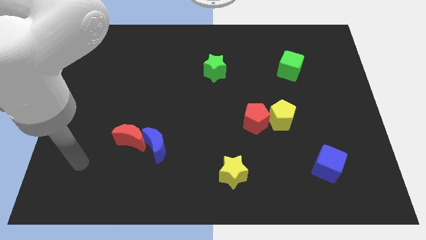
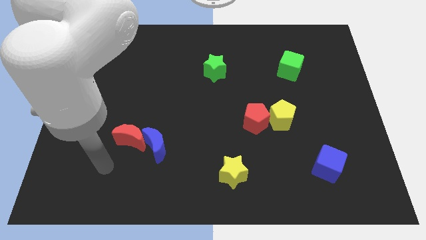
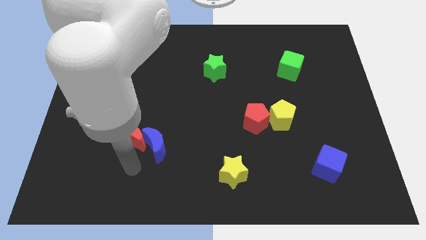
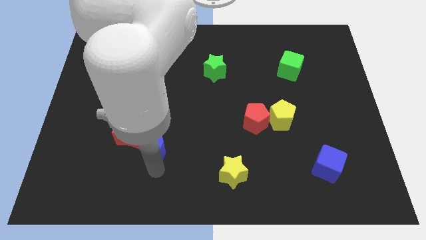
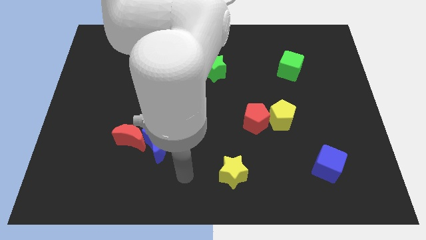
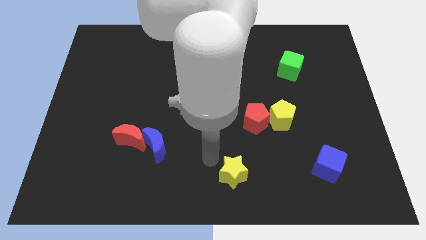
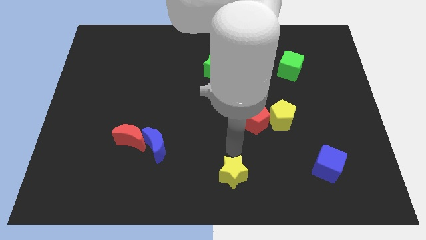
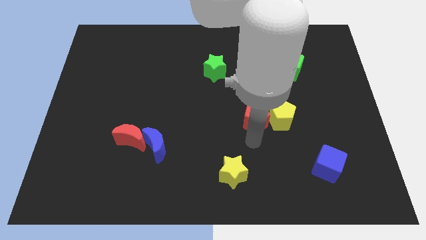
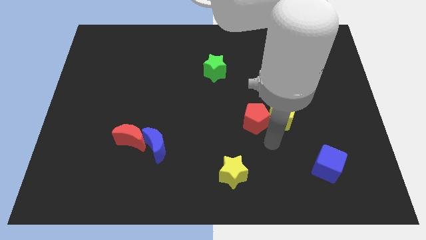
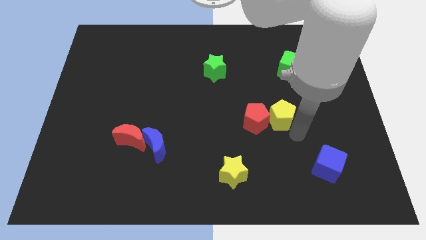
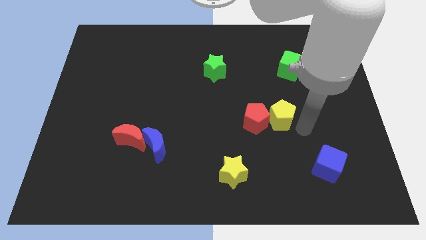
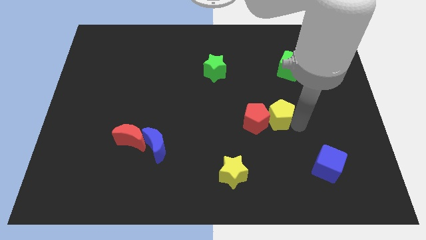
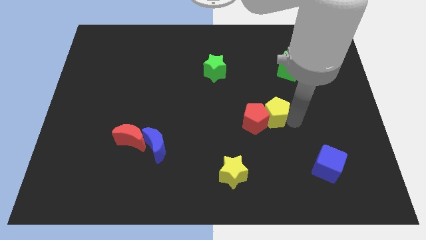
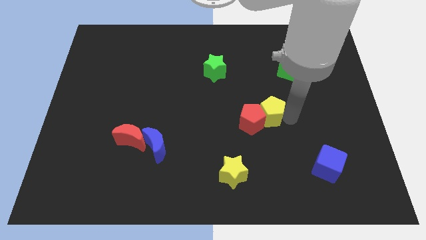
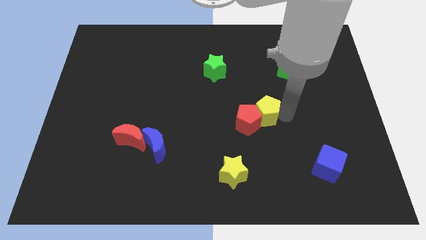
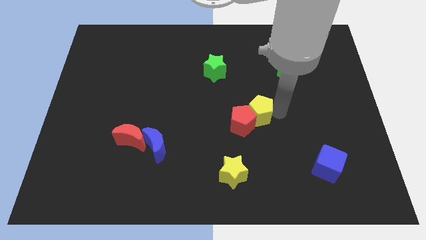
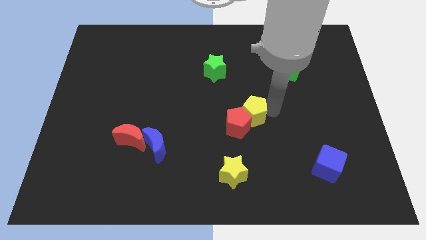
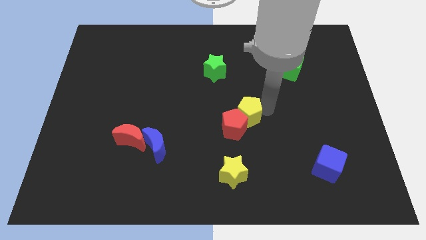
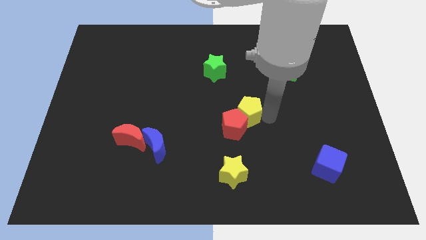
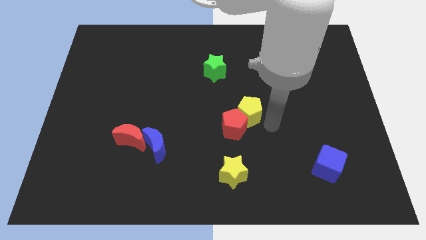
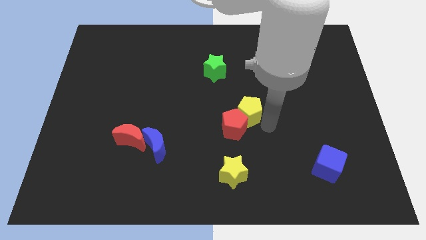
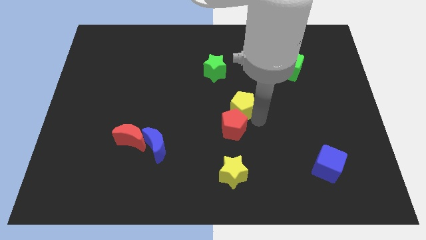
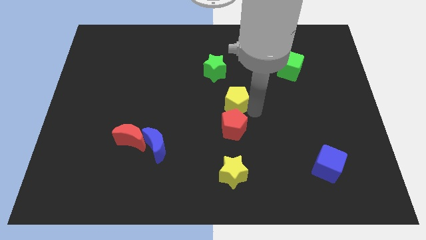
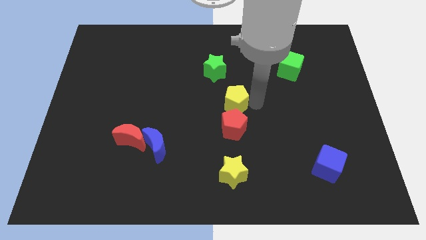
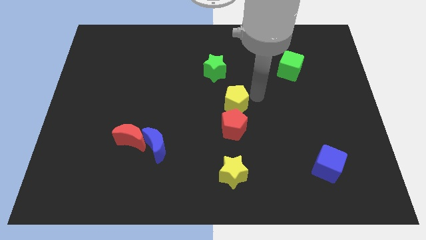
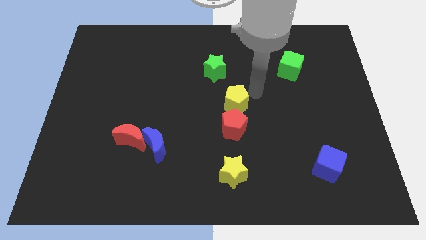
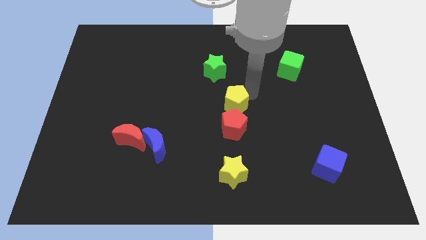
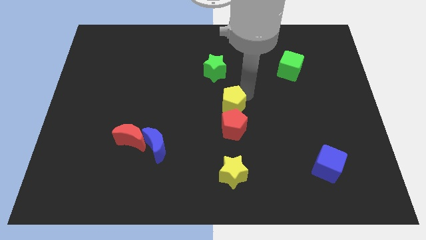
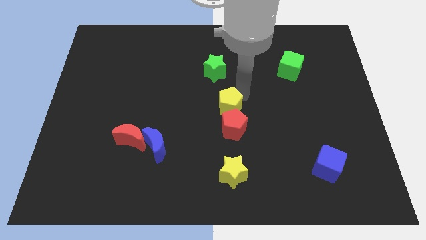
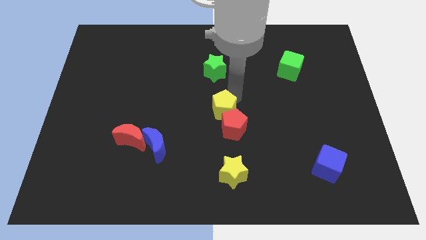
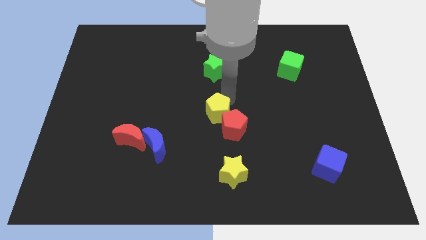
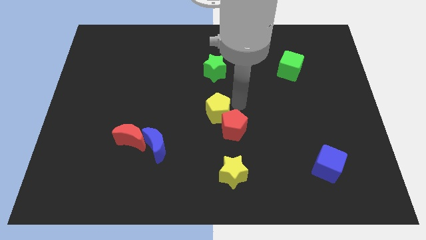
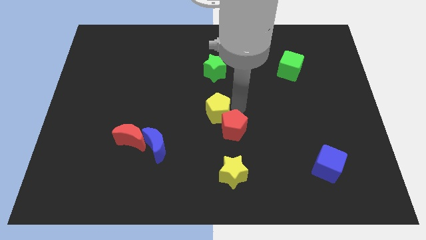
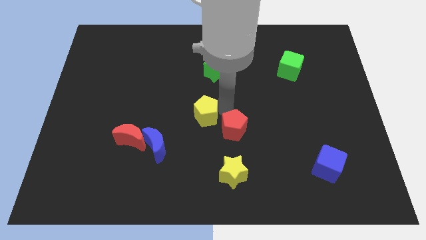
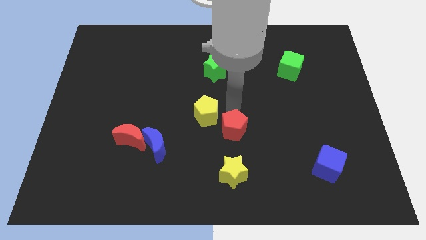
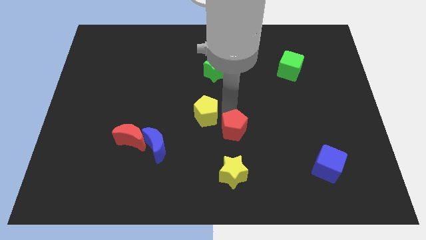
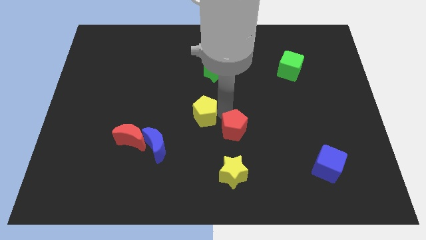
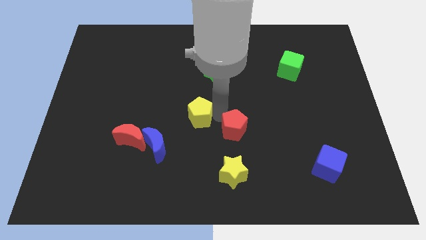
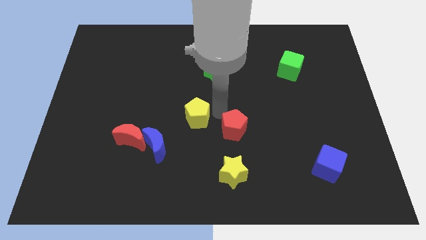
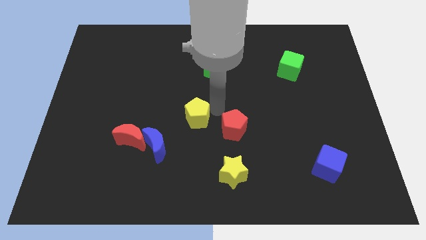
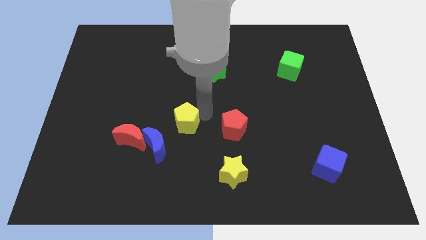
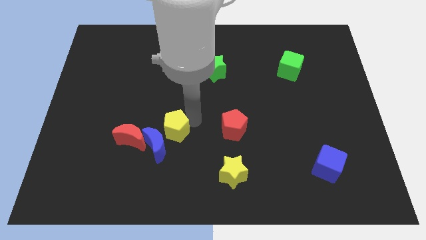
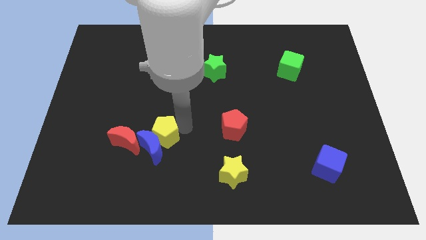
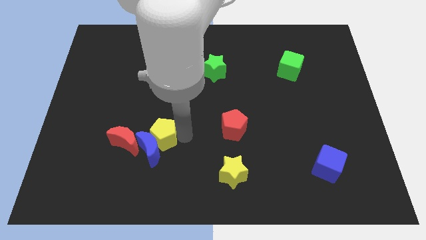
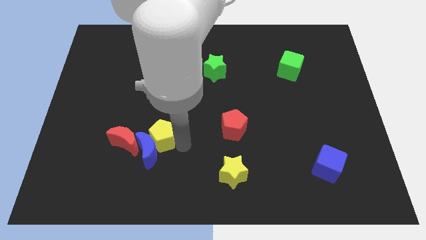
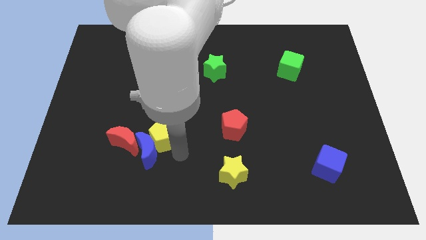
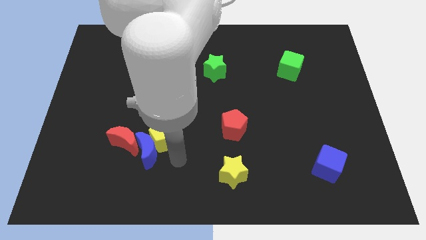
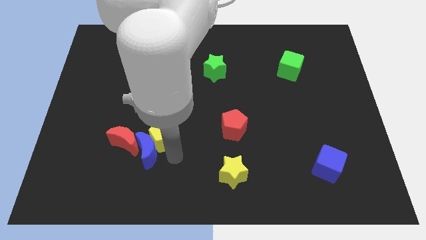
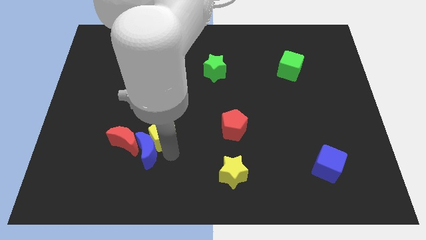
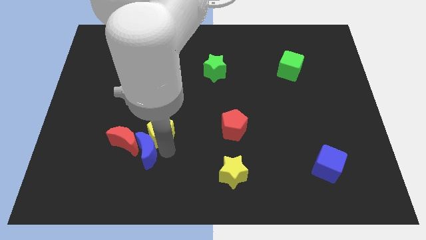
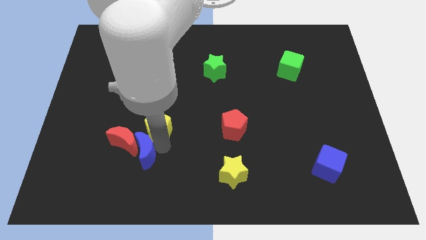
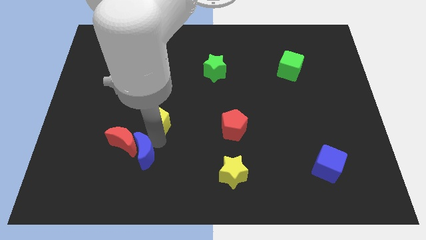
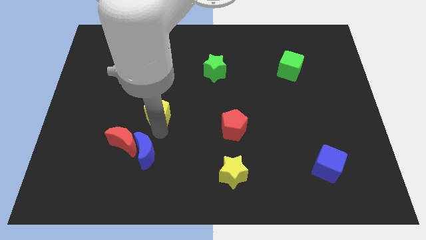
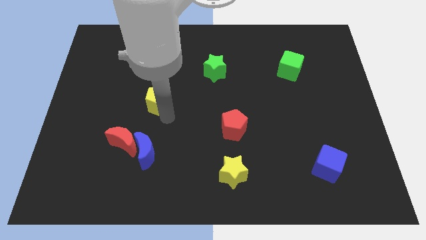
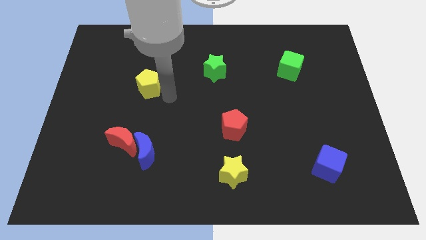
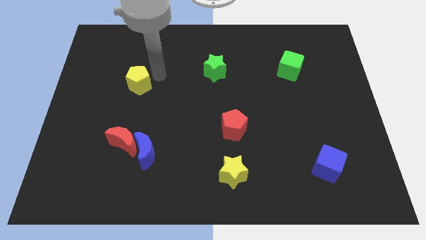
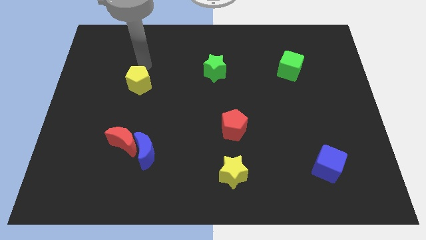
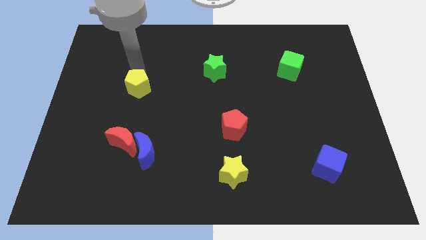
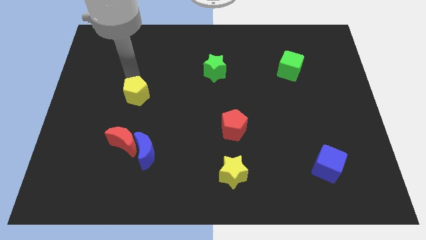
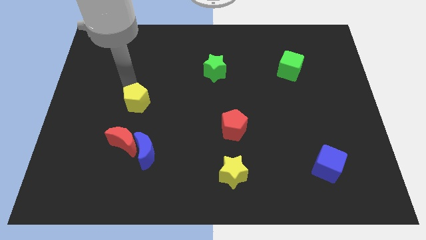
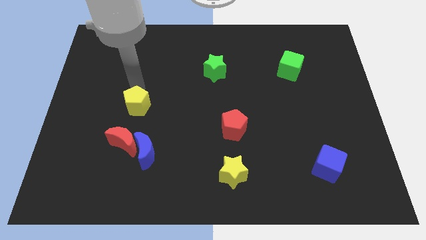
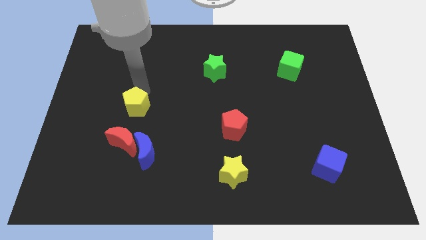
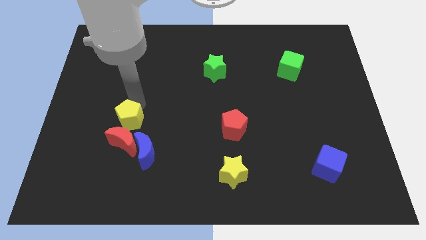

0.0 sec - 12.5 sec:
slide the yellow pentagon to the red moon
